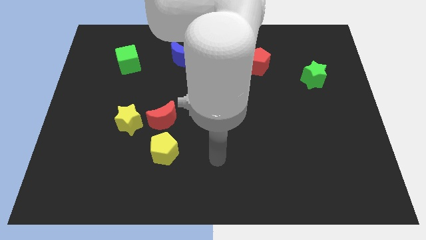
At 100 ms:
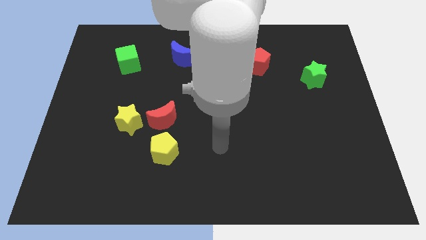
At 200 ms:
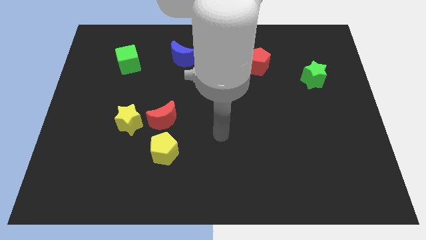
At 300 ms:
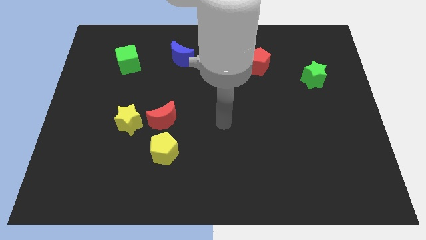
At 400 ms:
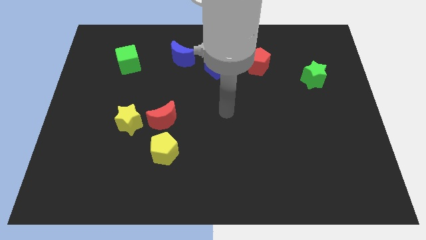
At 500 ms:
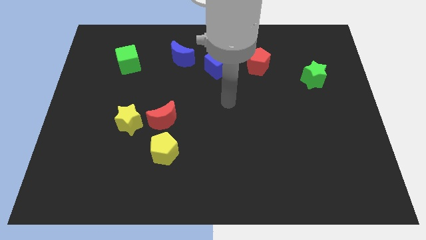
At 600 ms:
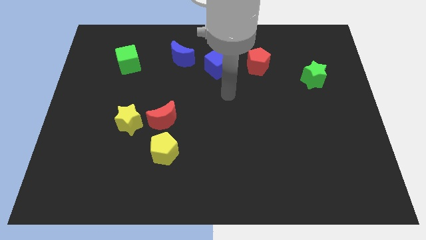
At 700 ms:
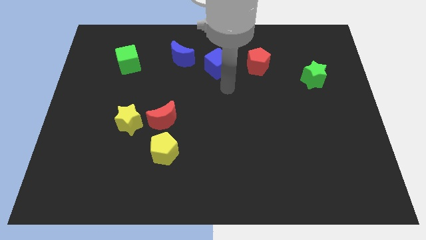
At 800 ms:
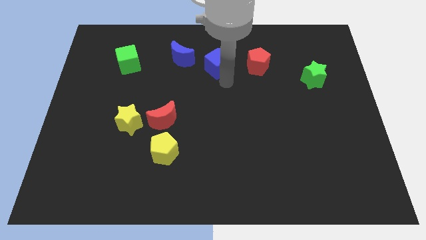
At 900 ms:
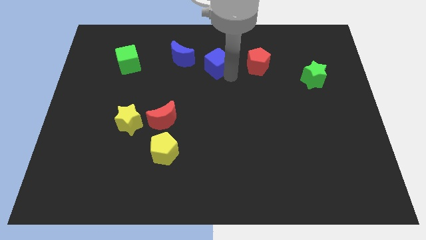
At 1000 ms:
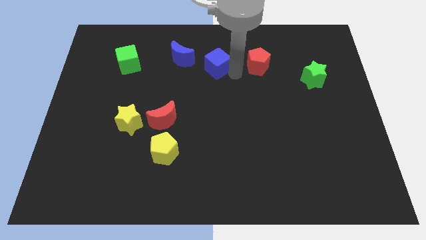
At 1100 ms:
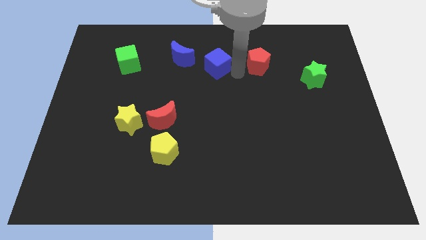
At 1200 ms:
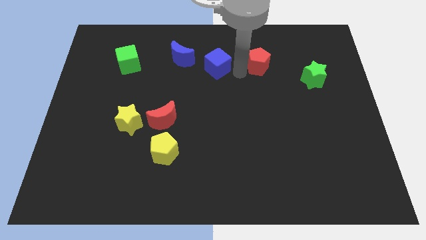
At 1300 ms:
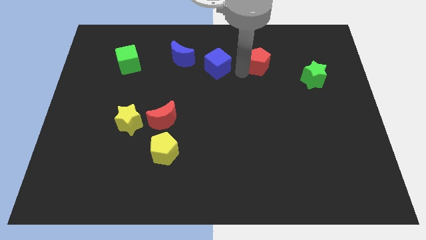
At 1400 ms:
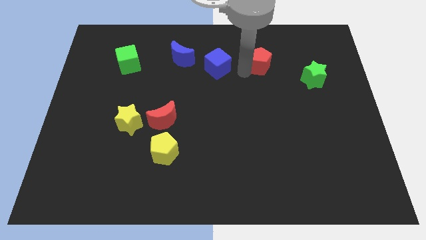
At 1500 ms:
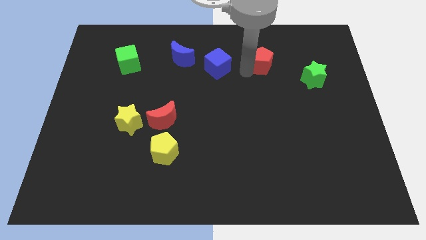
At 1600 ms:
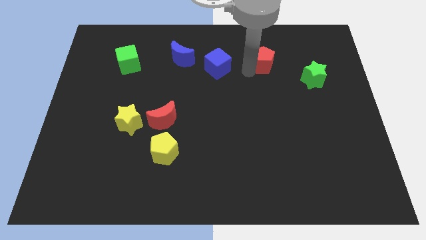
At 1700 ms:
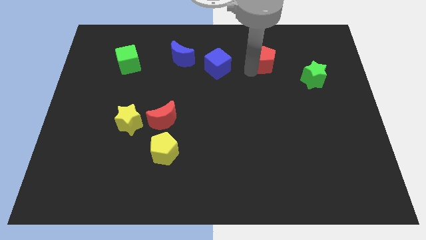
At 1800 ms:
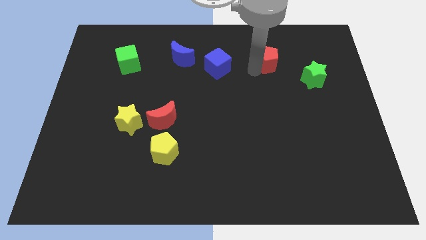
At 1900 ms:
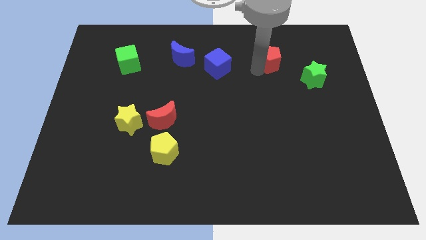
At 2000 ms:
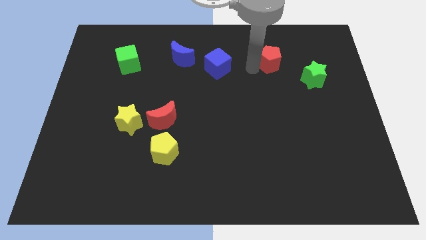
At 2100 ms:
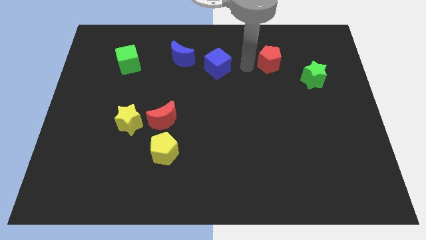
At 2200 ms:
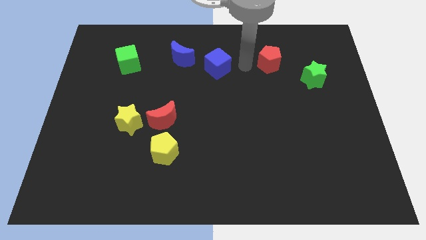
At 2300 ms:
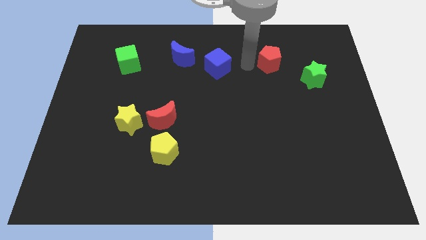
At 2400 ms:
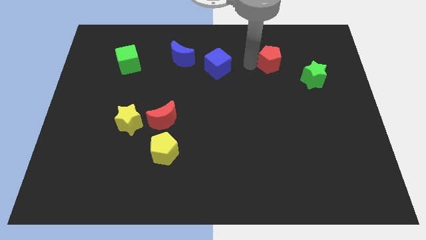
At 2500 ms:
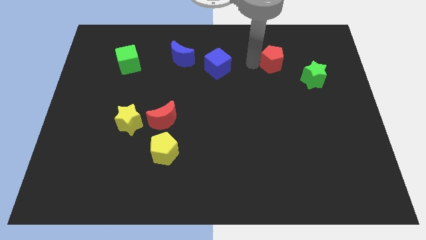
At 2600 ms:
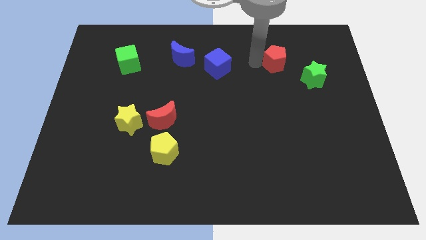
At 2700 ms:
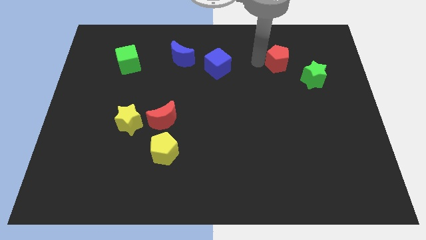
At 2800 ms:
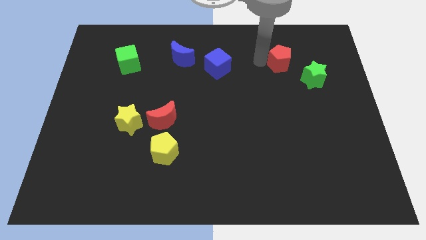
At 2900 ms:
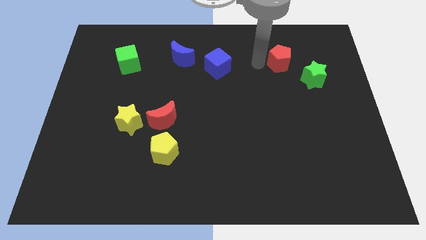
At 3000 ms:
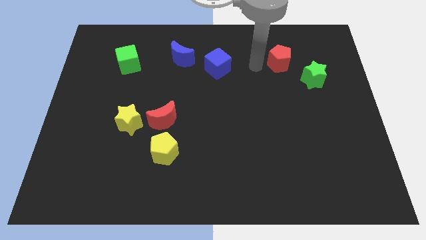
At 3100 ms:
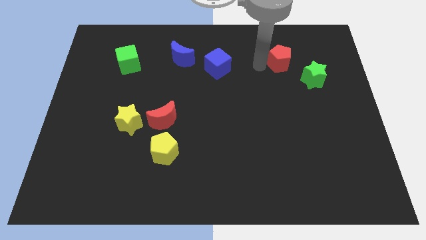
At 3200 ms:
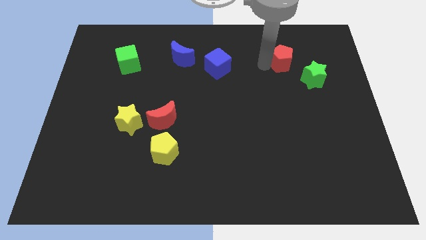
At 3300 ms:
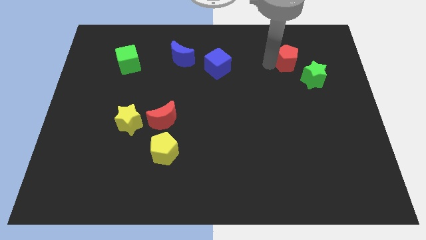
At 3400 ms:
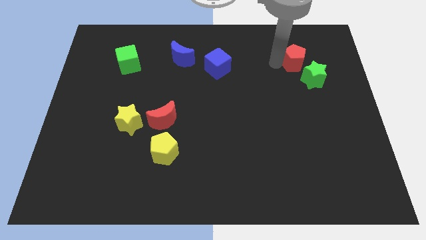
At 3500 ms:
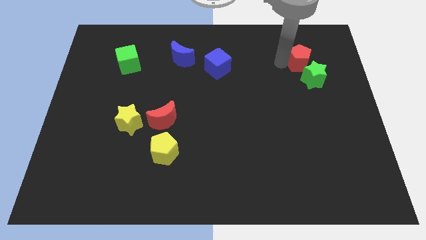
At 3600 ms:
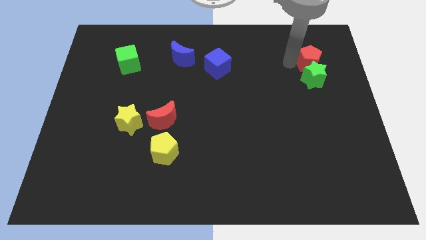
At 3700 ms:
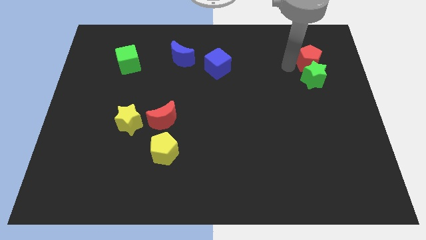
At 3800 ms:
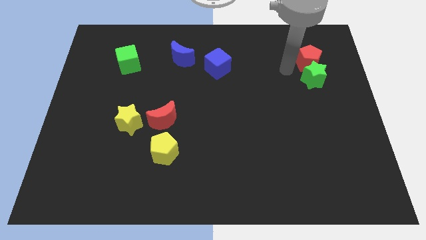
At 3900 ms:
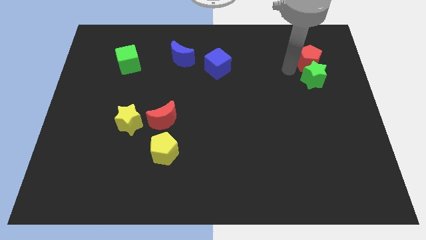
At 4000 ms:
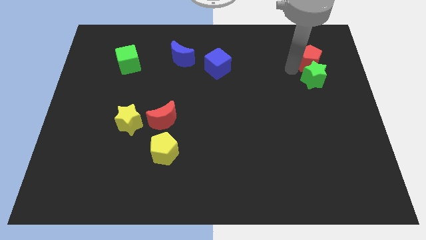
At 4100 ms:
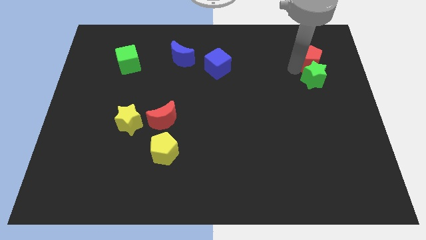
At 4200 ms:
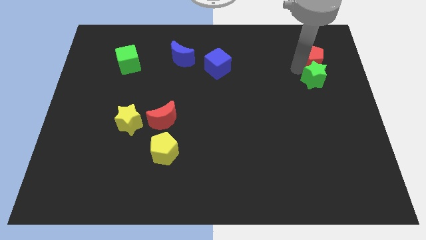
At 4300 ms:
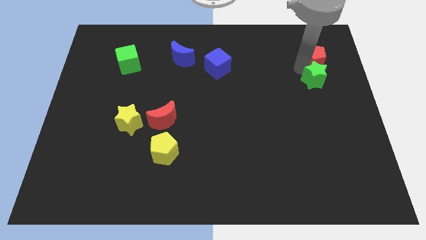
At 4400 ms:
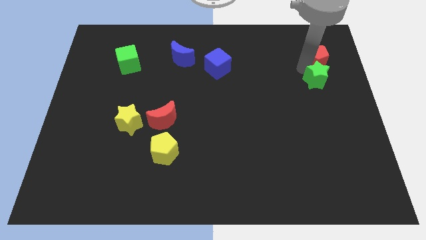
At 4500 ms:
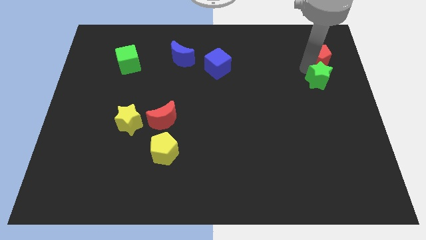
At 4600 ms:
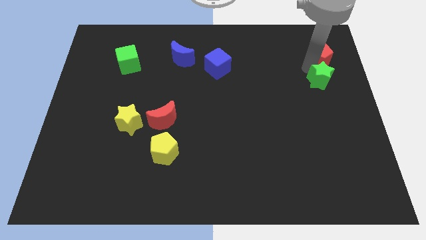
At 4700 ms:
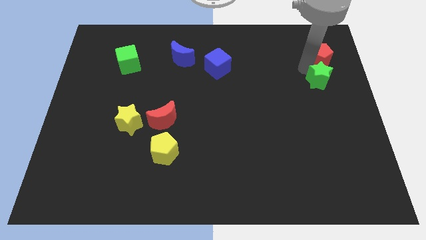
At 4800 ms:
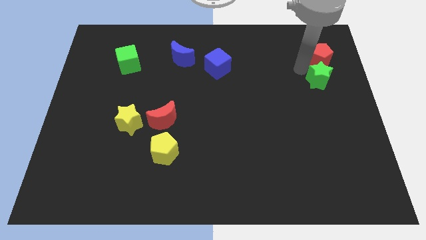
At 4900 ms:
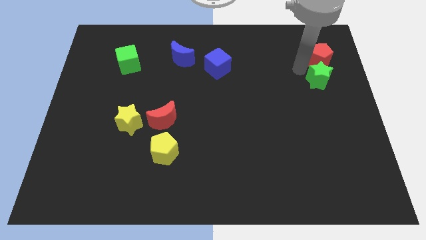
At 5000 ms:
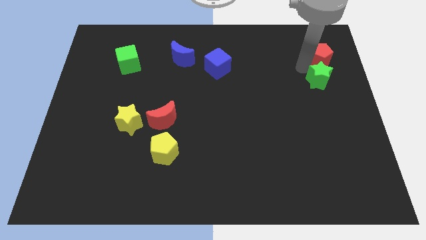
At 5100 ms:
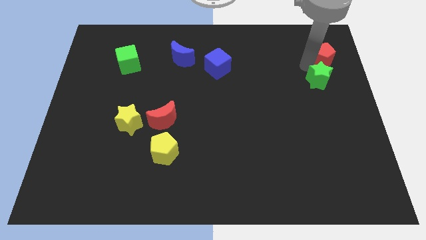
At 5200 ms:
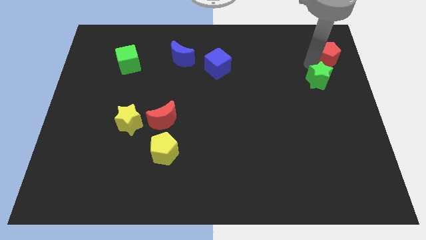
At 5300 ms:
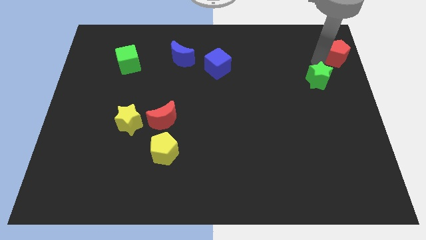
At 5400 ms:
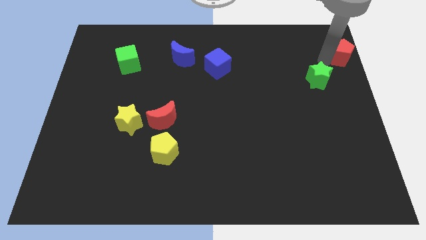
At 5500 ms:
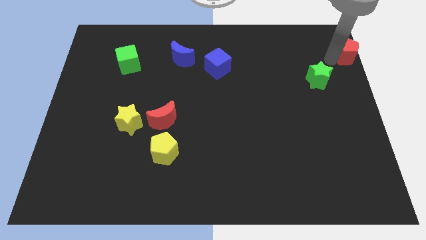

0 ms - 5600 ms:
move the red pentagon to the top right of the board

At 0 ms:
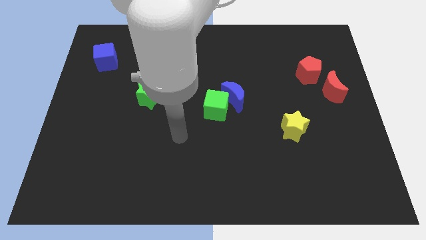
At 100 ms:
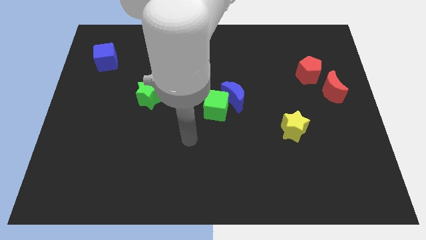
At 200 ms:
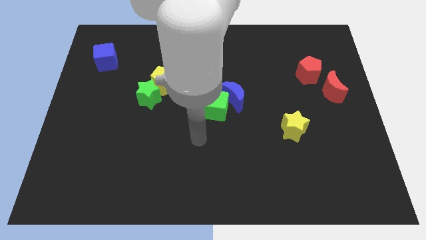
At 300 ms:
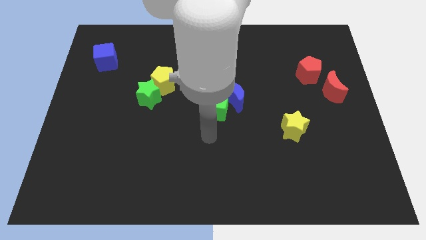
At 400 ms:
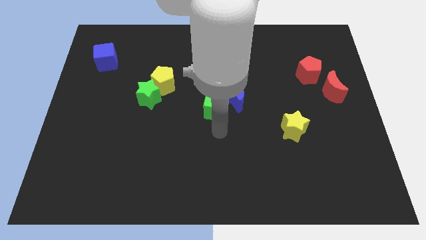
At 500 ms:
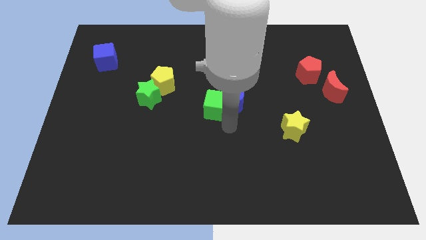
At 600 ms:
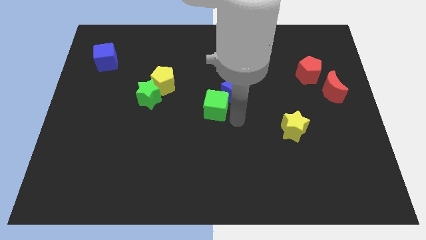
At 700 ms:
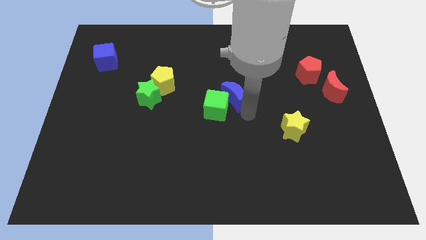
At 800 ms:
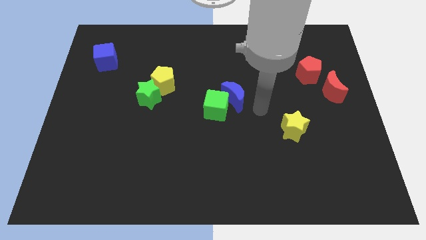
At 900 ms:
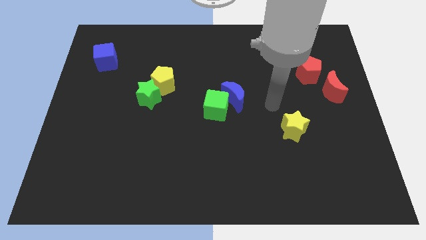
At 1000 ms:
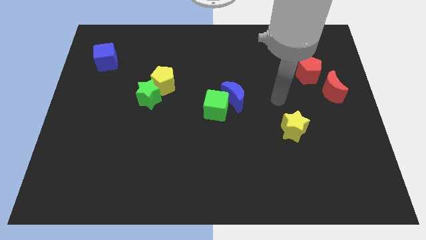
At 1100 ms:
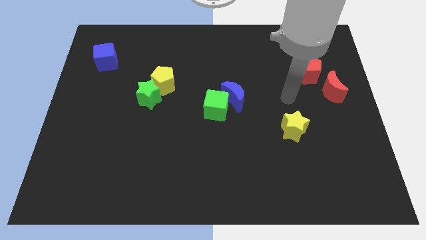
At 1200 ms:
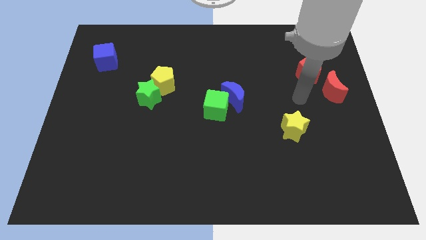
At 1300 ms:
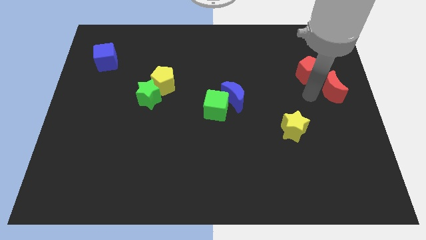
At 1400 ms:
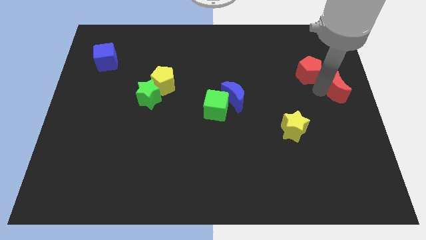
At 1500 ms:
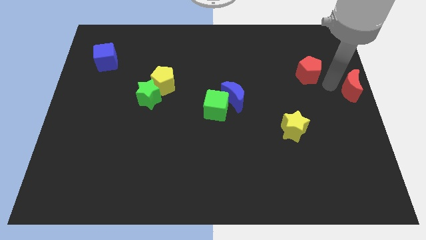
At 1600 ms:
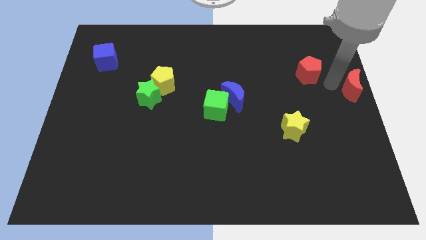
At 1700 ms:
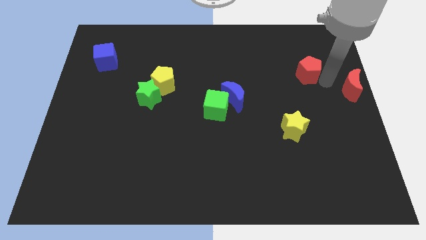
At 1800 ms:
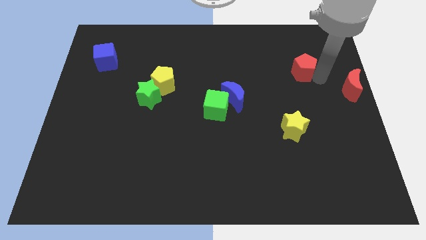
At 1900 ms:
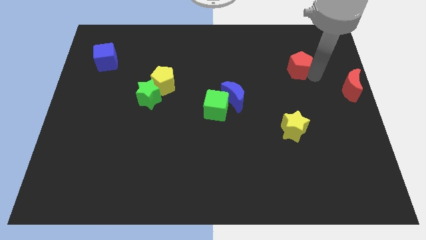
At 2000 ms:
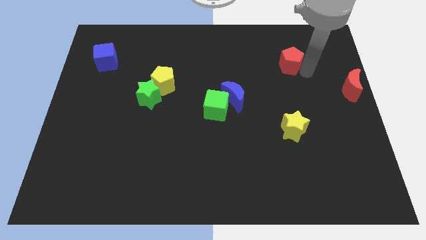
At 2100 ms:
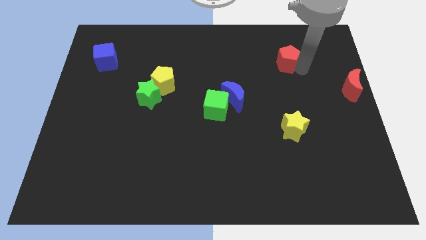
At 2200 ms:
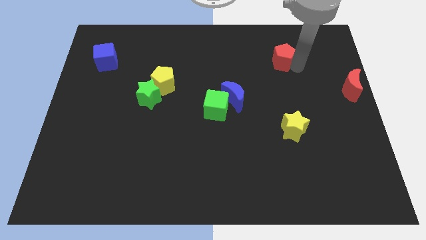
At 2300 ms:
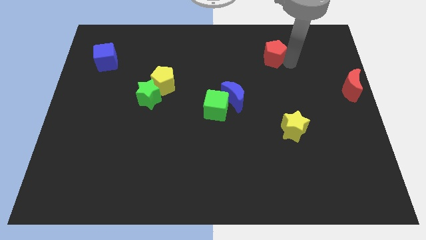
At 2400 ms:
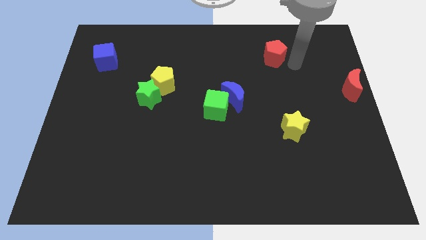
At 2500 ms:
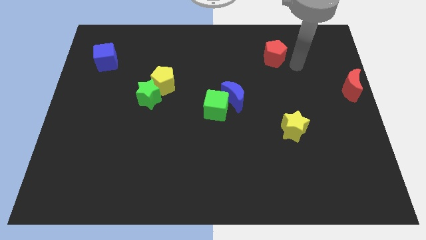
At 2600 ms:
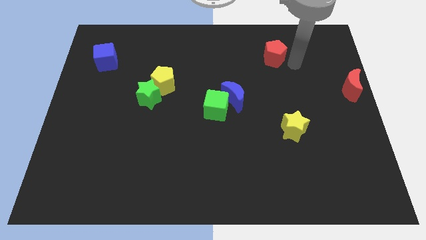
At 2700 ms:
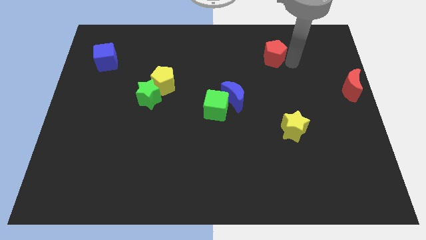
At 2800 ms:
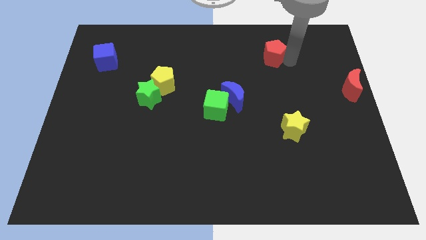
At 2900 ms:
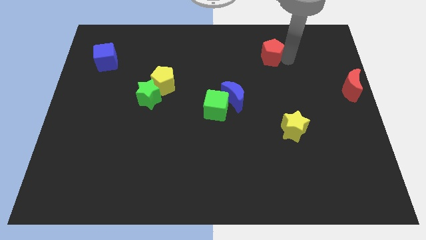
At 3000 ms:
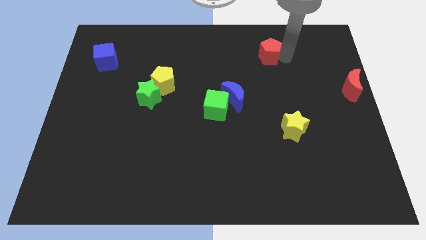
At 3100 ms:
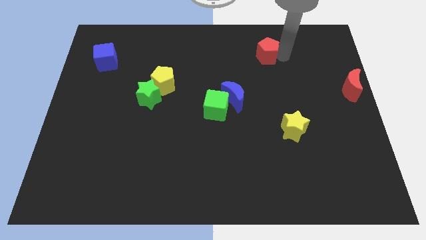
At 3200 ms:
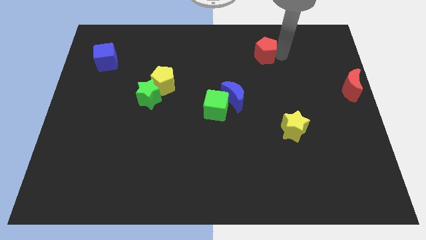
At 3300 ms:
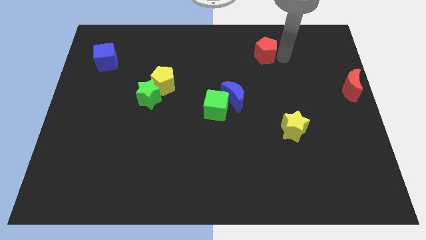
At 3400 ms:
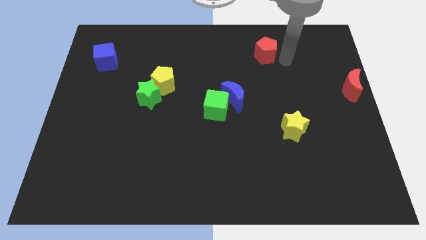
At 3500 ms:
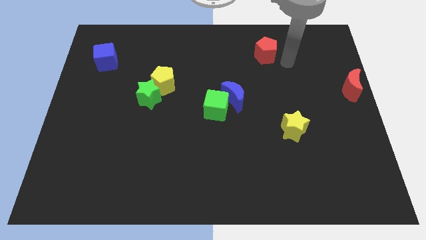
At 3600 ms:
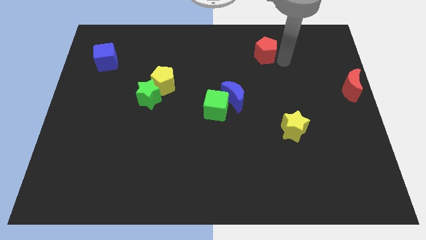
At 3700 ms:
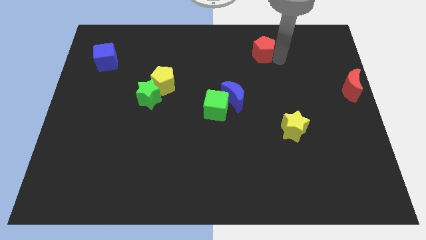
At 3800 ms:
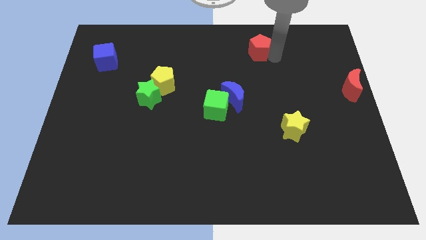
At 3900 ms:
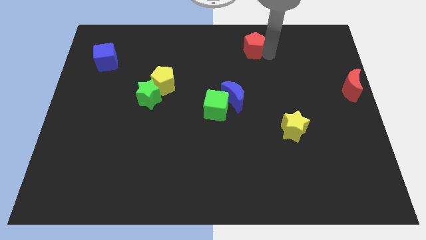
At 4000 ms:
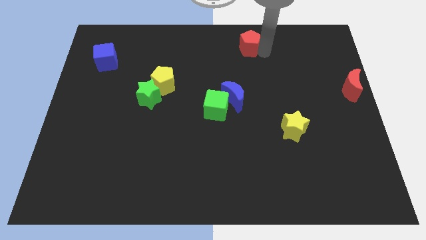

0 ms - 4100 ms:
slide the red pentagon to the top side
